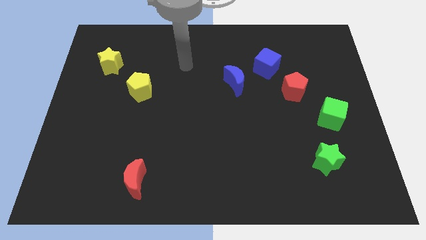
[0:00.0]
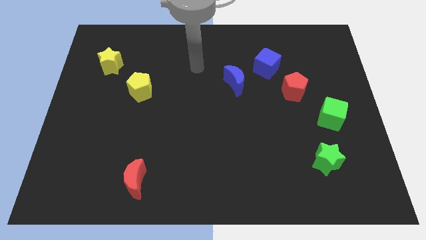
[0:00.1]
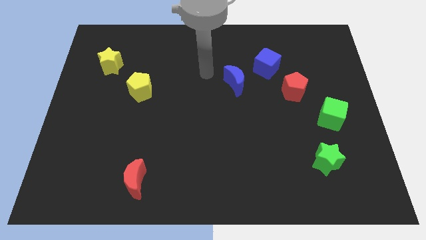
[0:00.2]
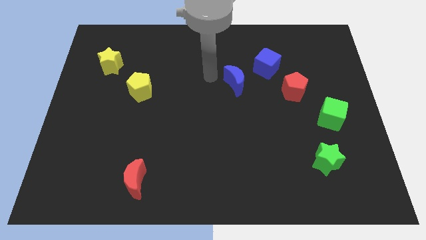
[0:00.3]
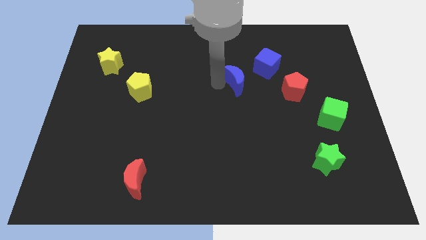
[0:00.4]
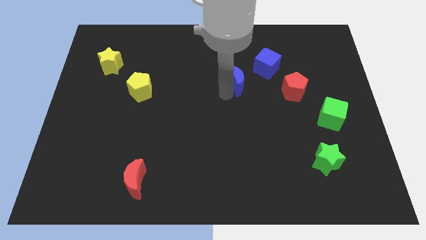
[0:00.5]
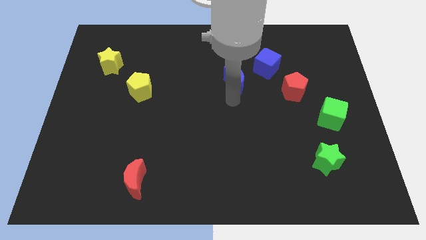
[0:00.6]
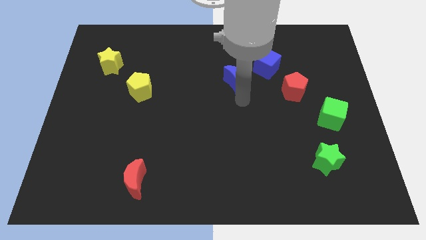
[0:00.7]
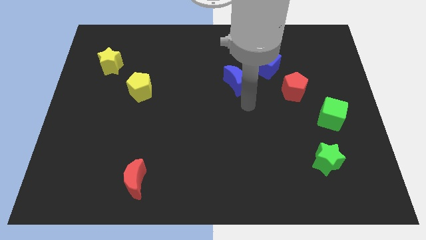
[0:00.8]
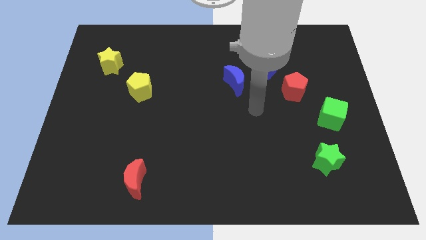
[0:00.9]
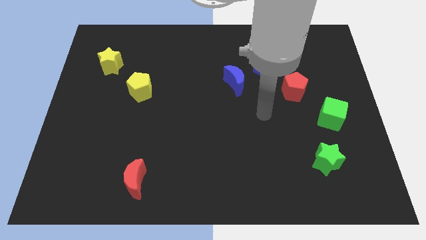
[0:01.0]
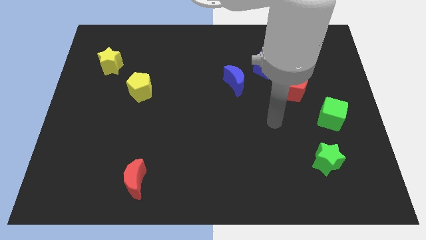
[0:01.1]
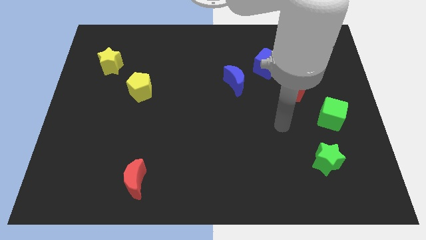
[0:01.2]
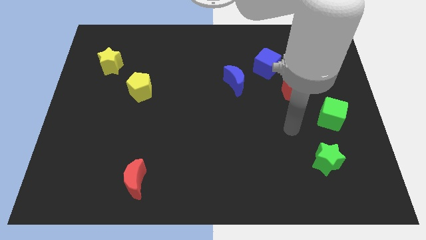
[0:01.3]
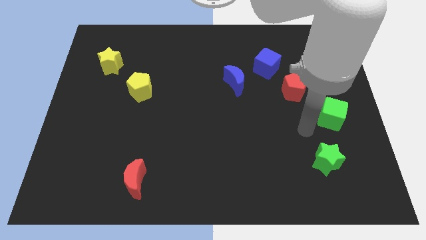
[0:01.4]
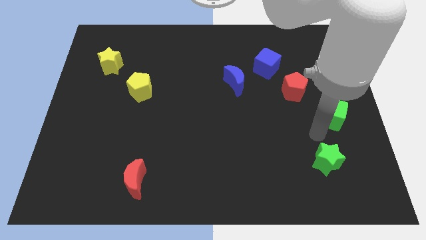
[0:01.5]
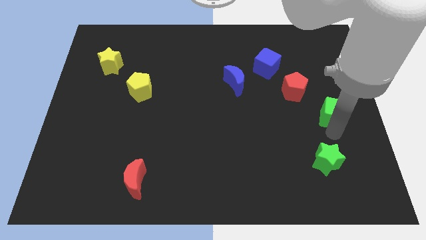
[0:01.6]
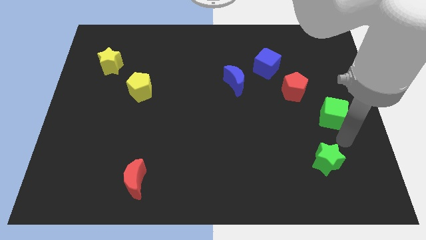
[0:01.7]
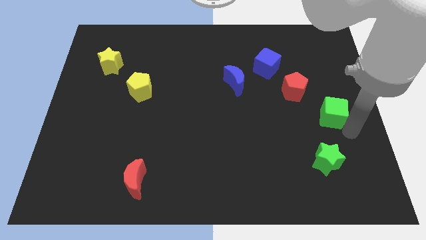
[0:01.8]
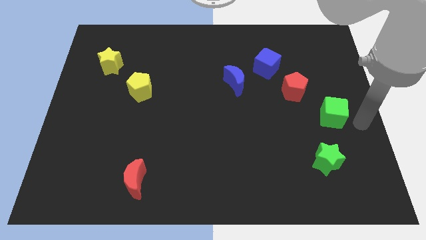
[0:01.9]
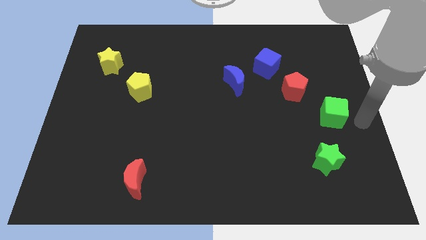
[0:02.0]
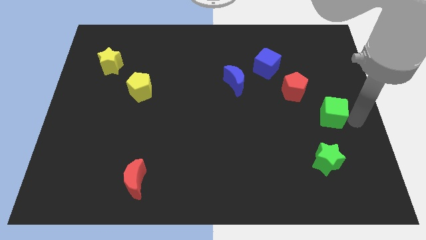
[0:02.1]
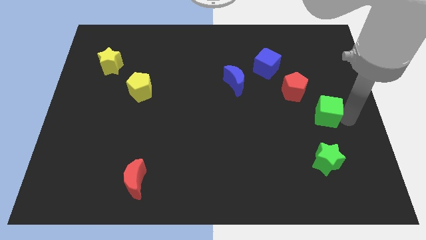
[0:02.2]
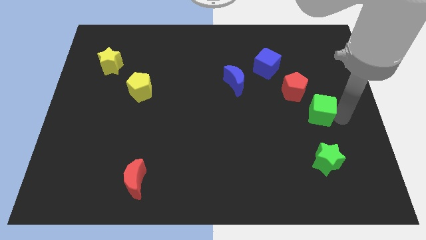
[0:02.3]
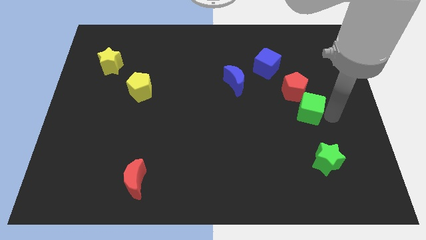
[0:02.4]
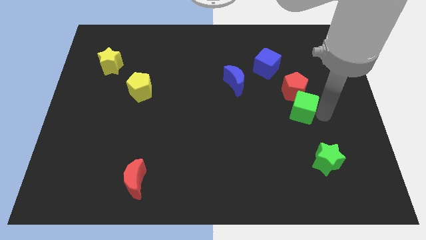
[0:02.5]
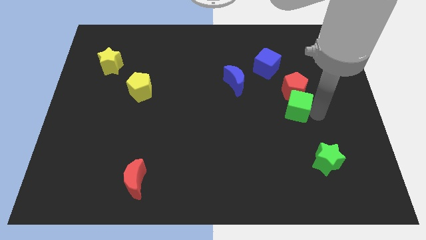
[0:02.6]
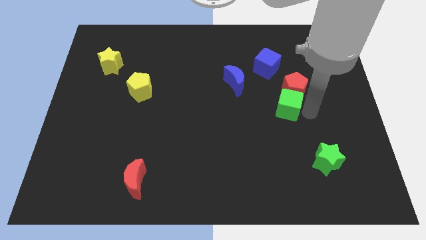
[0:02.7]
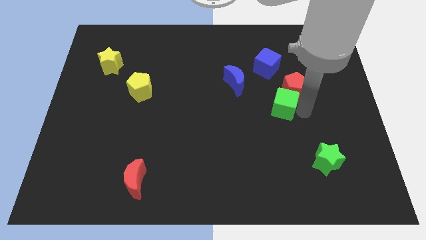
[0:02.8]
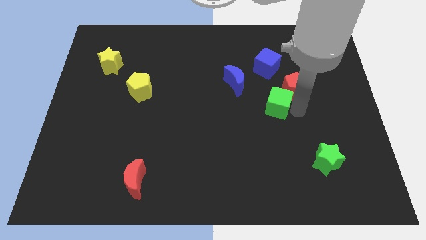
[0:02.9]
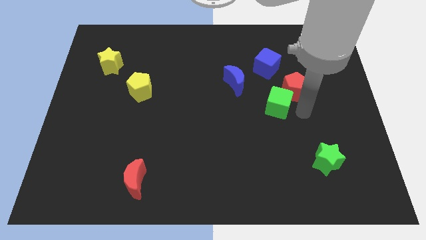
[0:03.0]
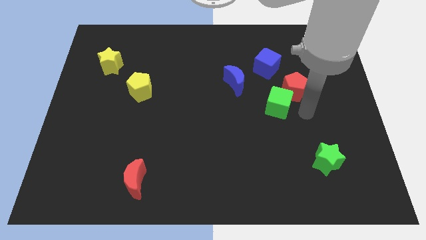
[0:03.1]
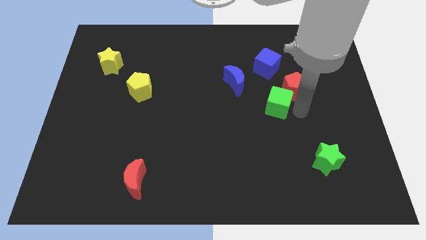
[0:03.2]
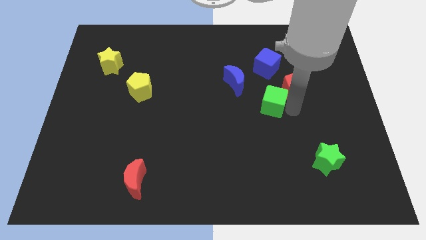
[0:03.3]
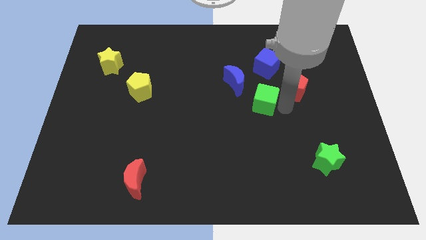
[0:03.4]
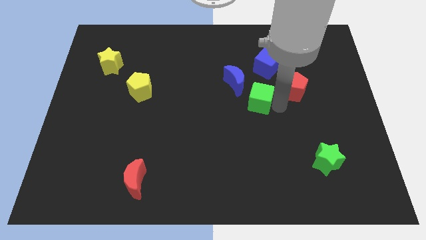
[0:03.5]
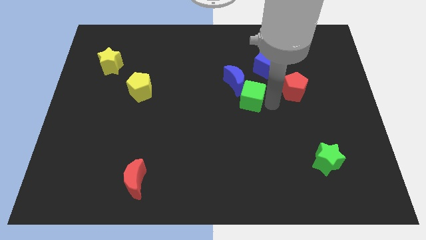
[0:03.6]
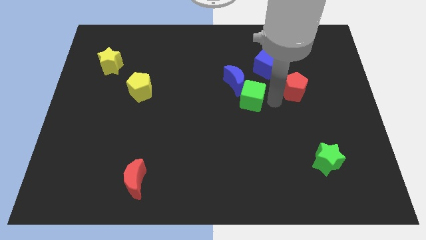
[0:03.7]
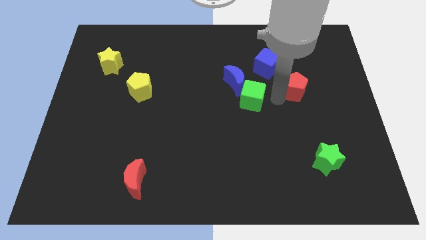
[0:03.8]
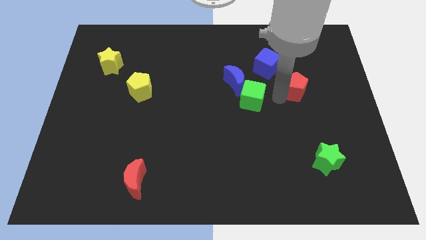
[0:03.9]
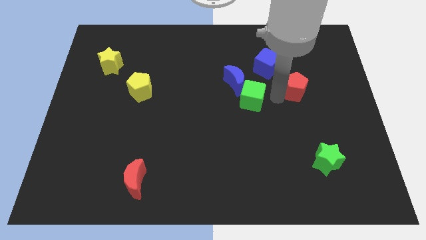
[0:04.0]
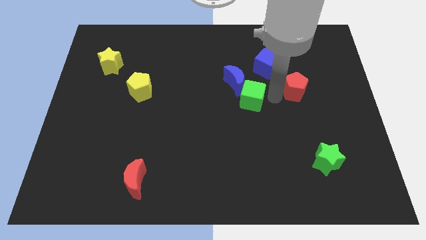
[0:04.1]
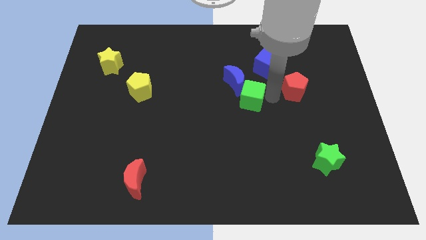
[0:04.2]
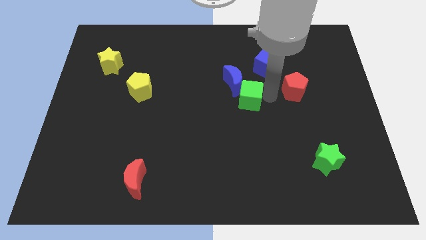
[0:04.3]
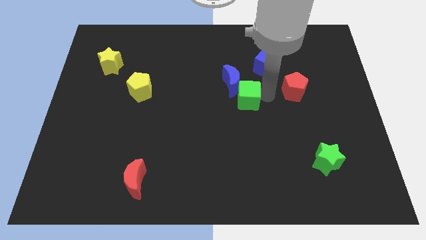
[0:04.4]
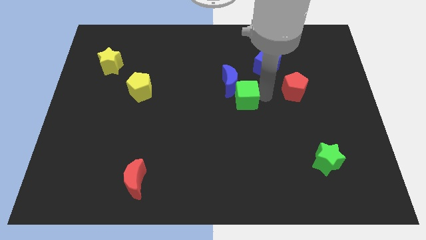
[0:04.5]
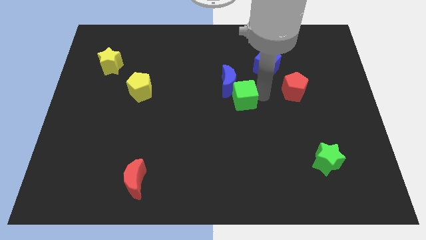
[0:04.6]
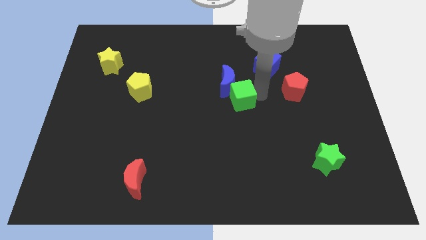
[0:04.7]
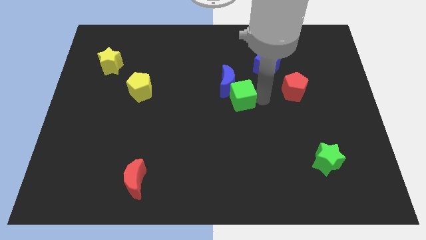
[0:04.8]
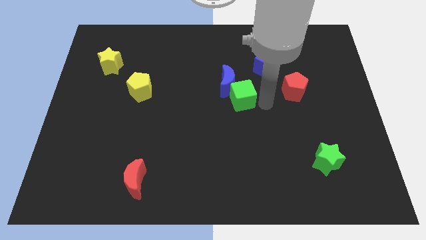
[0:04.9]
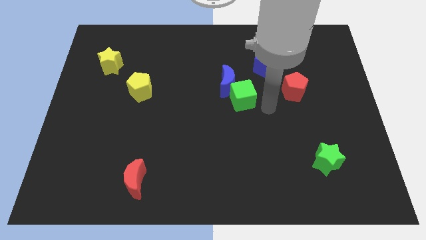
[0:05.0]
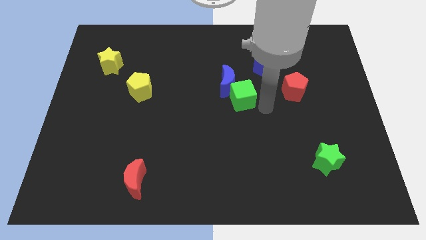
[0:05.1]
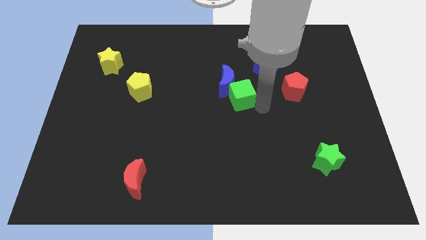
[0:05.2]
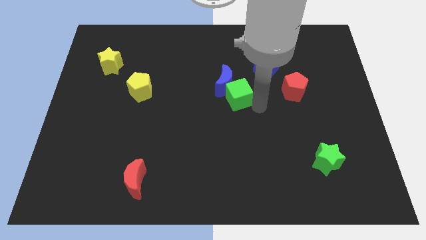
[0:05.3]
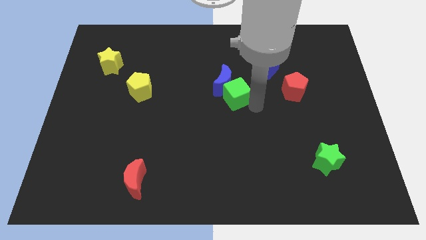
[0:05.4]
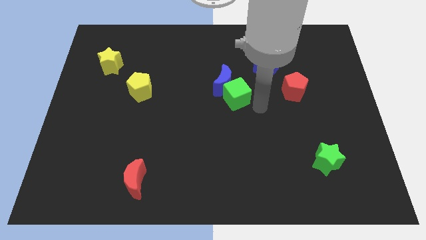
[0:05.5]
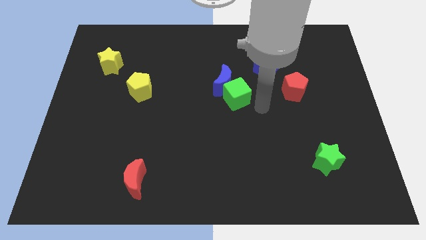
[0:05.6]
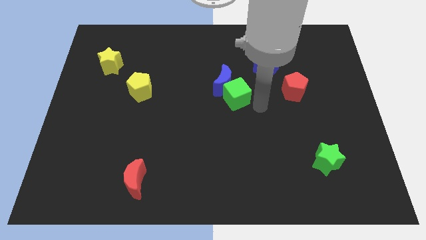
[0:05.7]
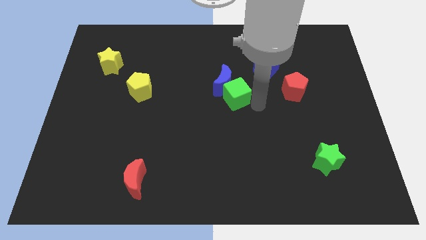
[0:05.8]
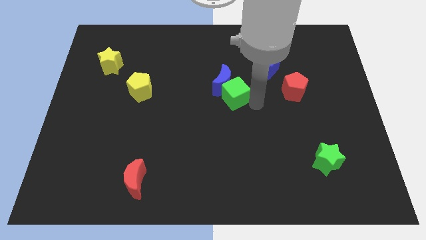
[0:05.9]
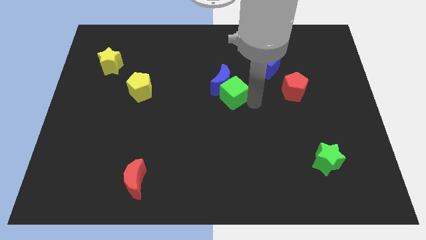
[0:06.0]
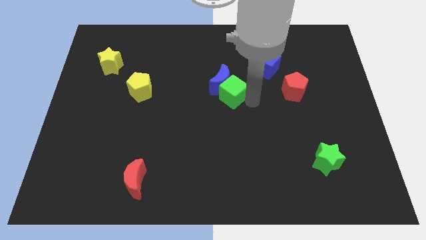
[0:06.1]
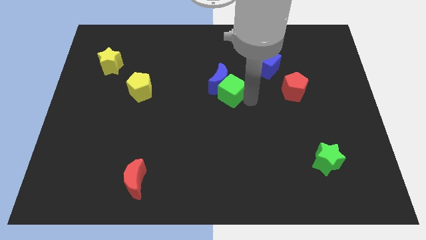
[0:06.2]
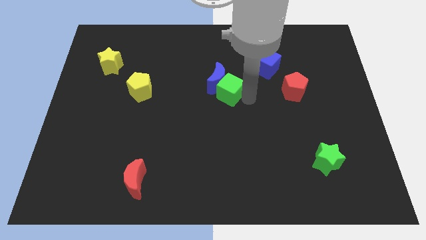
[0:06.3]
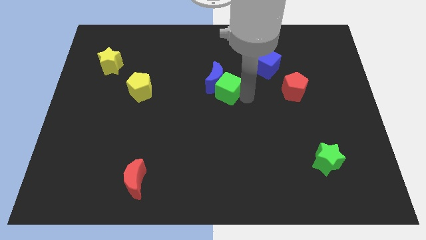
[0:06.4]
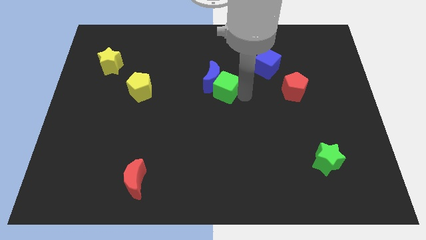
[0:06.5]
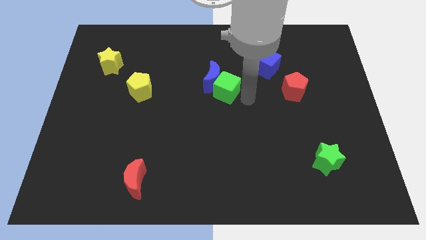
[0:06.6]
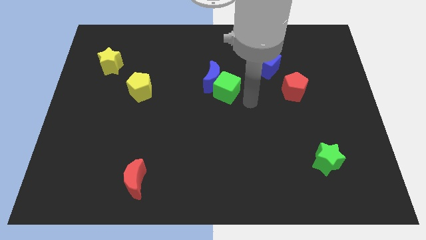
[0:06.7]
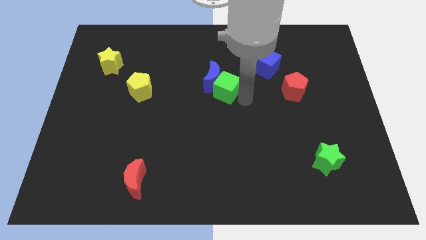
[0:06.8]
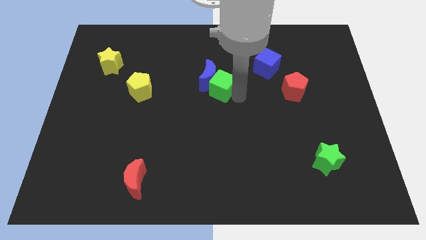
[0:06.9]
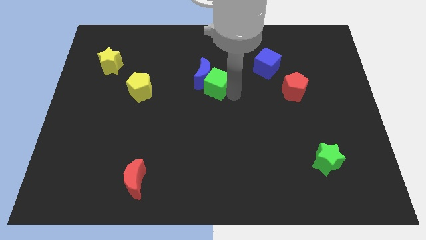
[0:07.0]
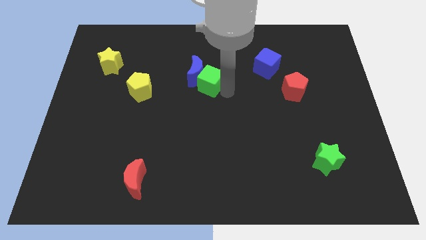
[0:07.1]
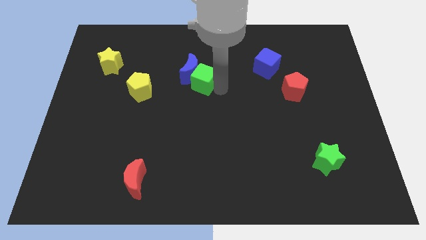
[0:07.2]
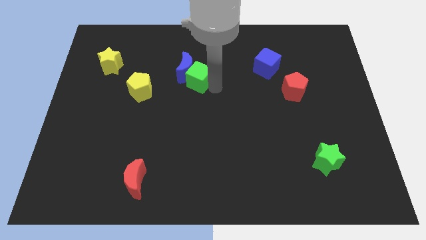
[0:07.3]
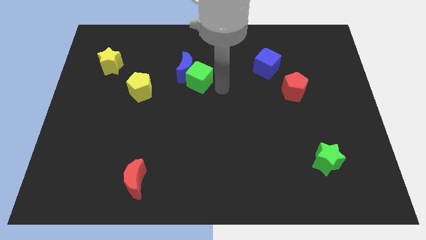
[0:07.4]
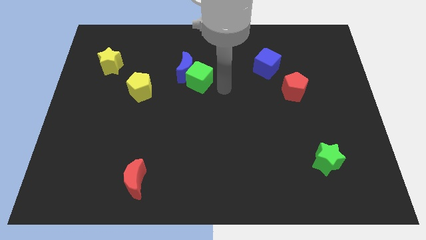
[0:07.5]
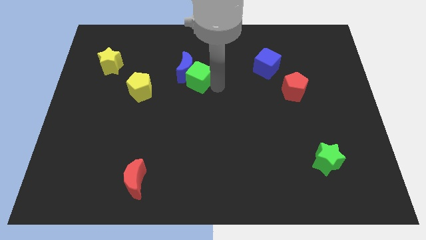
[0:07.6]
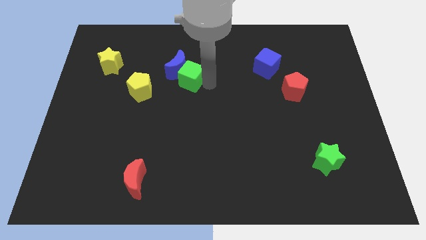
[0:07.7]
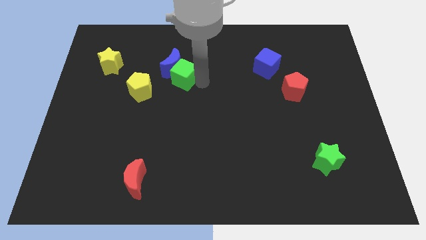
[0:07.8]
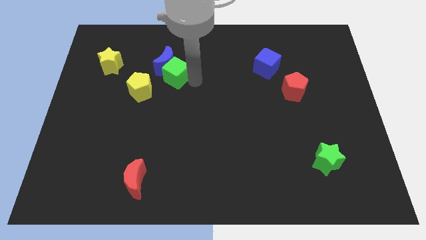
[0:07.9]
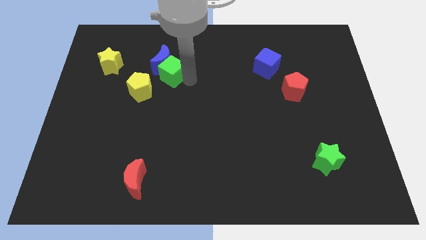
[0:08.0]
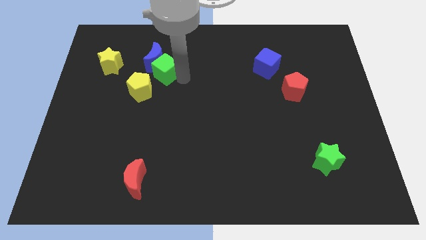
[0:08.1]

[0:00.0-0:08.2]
push the green cube right of the yellow star
